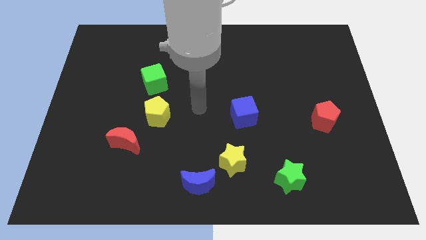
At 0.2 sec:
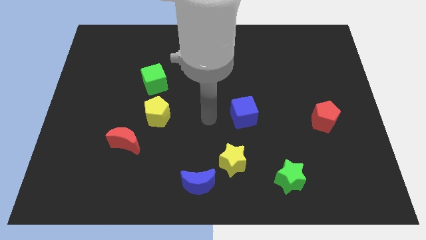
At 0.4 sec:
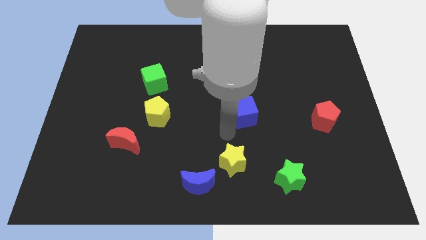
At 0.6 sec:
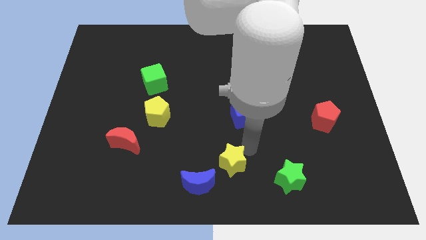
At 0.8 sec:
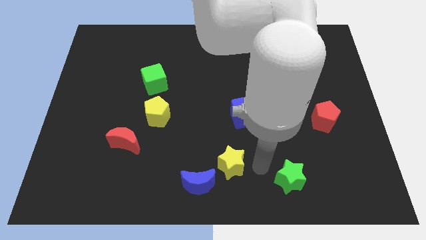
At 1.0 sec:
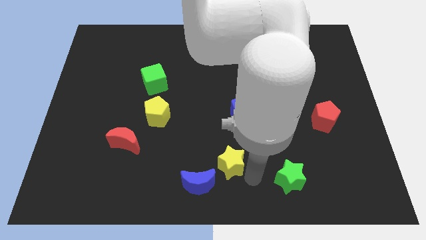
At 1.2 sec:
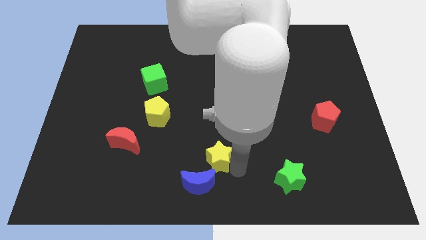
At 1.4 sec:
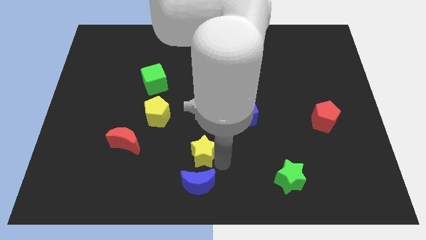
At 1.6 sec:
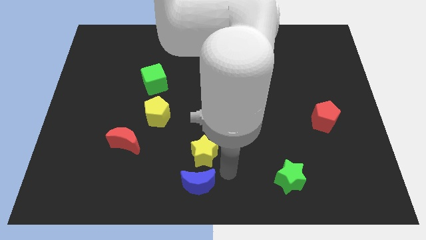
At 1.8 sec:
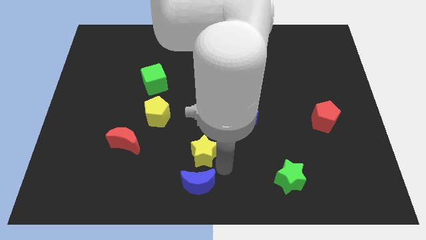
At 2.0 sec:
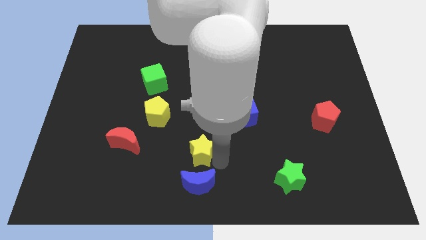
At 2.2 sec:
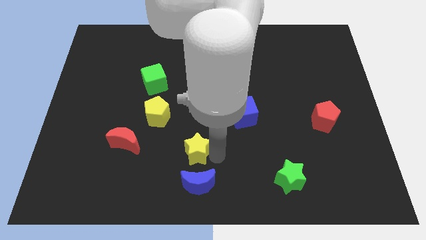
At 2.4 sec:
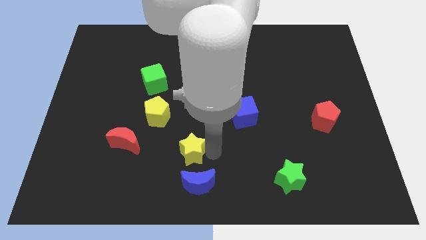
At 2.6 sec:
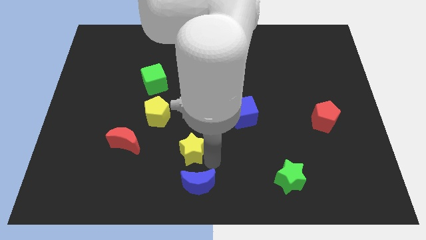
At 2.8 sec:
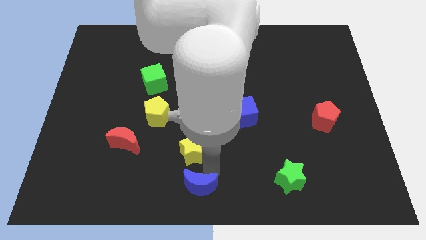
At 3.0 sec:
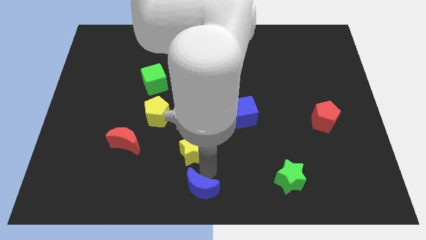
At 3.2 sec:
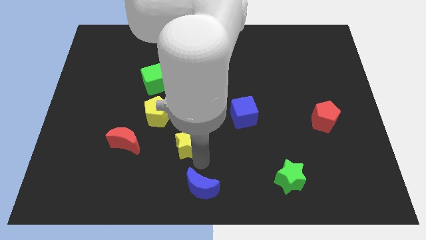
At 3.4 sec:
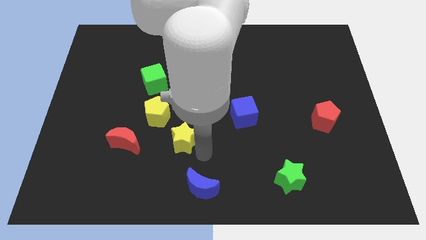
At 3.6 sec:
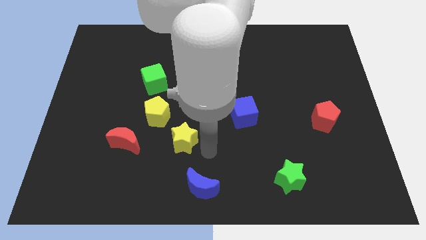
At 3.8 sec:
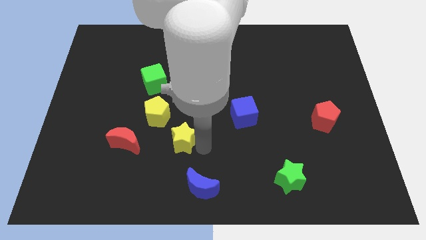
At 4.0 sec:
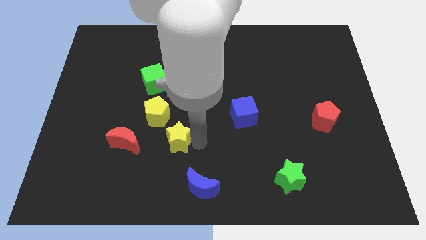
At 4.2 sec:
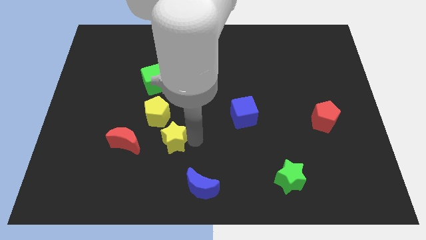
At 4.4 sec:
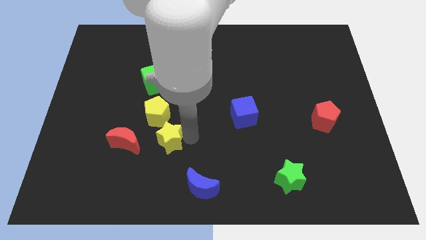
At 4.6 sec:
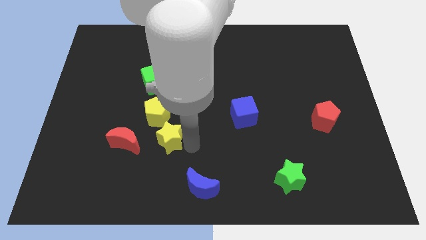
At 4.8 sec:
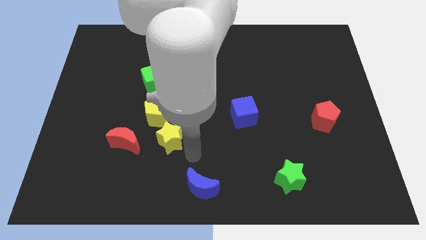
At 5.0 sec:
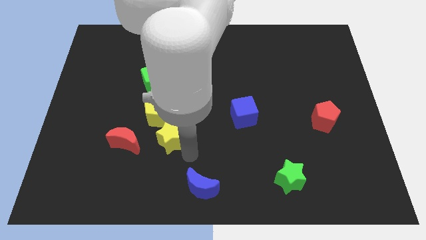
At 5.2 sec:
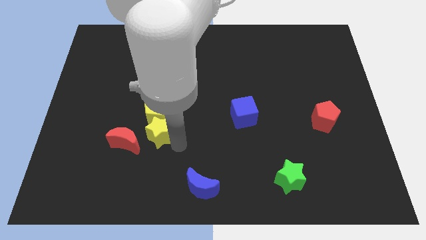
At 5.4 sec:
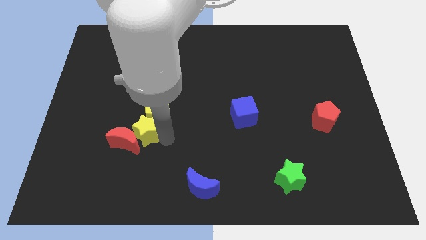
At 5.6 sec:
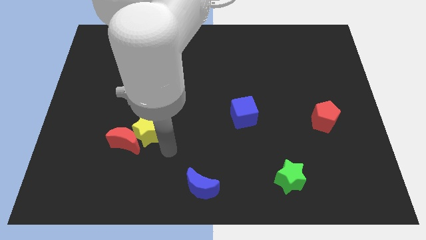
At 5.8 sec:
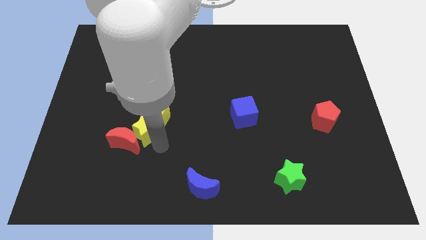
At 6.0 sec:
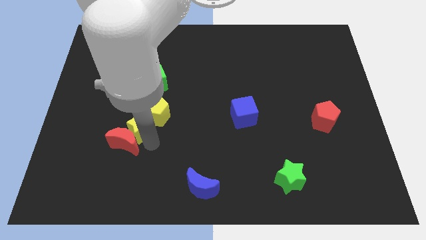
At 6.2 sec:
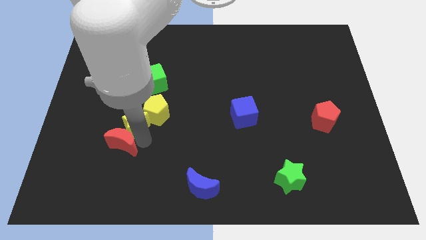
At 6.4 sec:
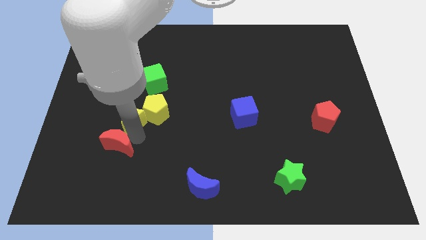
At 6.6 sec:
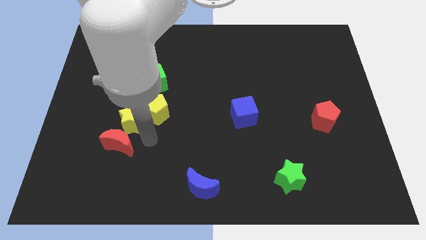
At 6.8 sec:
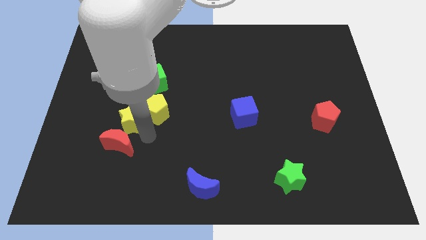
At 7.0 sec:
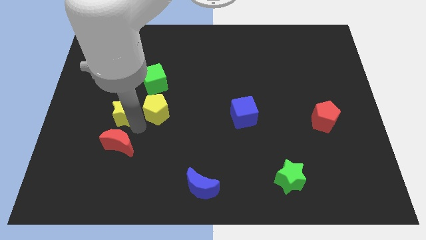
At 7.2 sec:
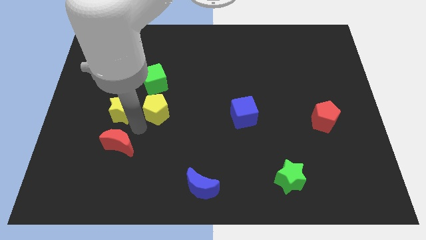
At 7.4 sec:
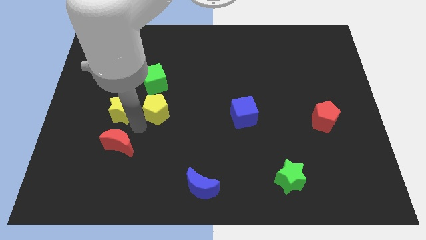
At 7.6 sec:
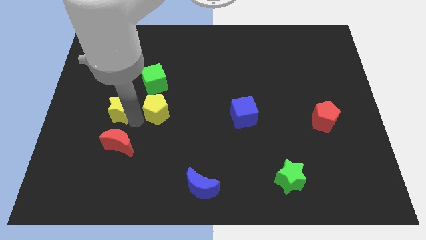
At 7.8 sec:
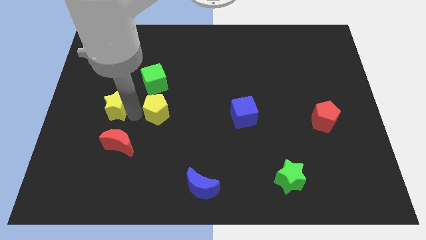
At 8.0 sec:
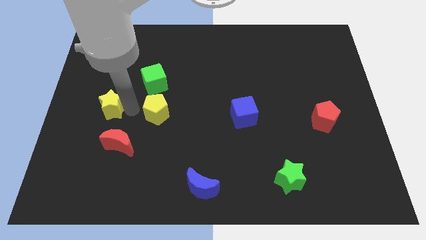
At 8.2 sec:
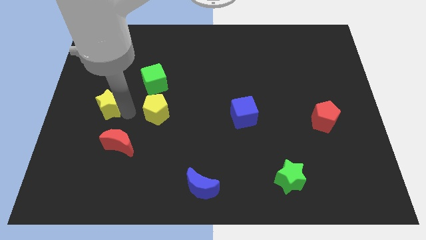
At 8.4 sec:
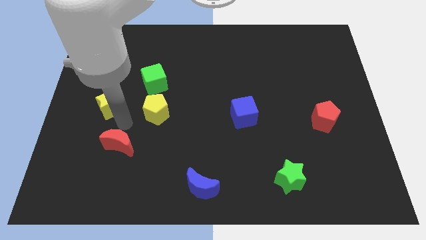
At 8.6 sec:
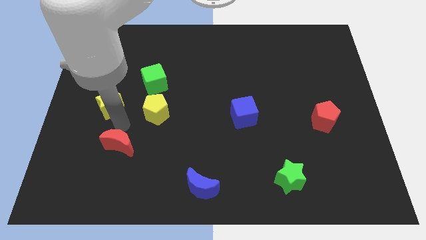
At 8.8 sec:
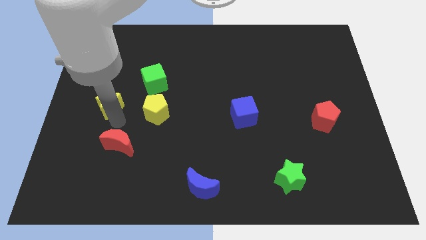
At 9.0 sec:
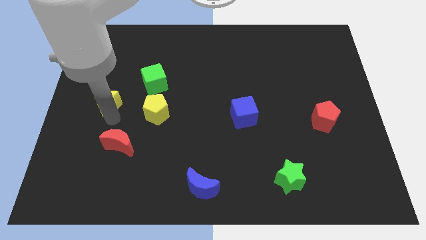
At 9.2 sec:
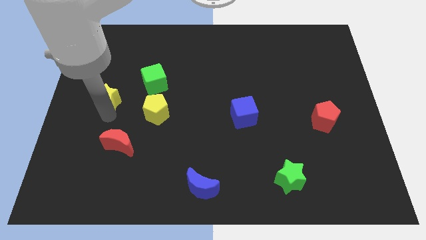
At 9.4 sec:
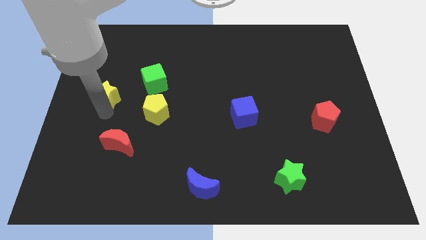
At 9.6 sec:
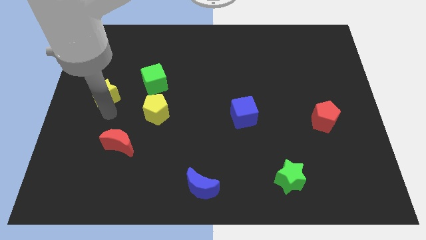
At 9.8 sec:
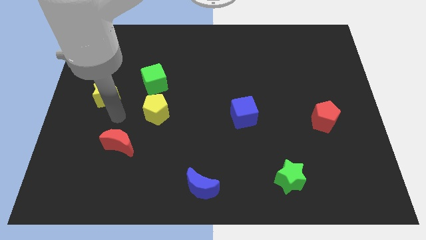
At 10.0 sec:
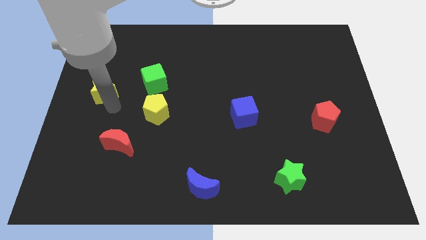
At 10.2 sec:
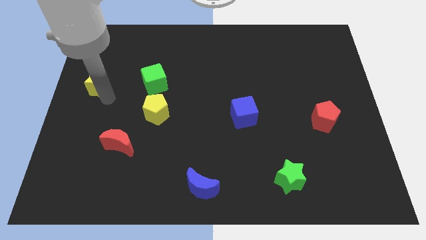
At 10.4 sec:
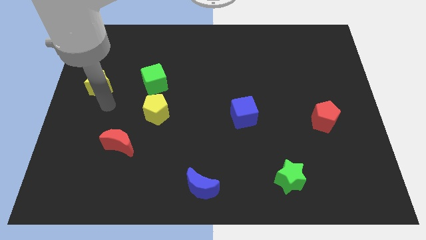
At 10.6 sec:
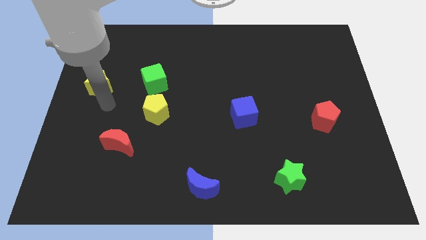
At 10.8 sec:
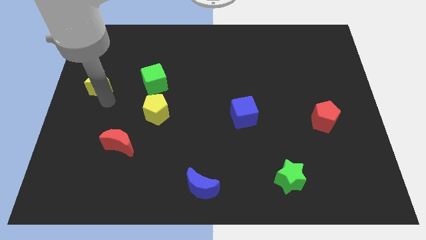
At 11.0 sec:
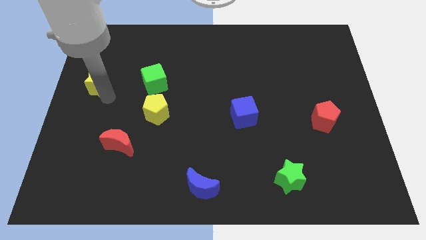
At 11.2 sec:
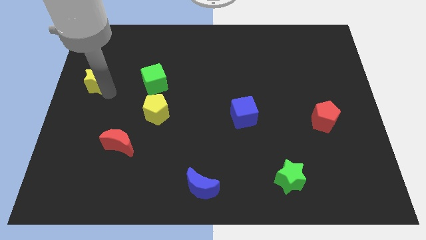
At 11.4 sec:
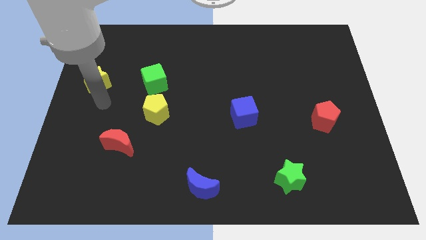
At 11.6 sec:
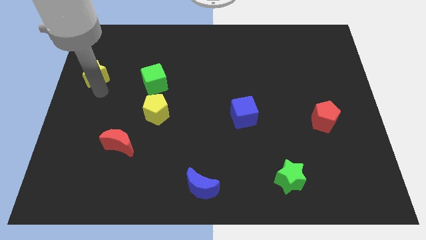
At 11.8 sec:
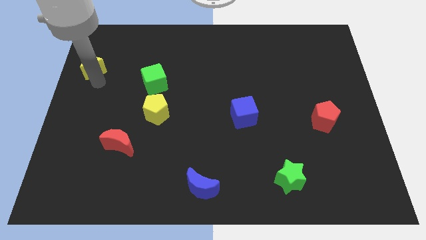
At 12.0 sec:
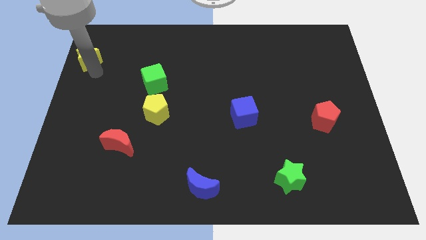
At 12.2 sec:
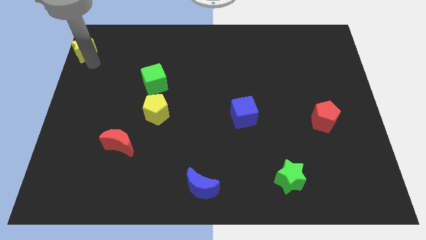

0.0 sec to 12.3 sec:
push the yellow star to the top left of the board
